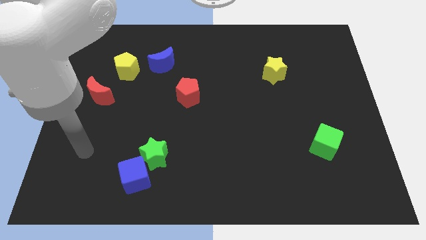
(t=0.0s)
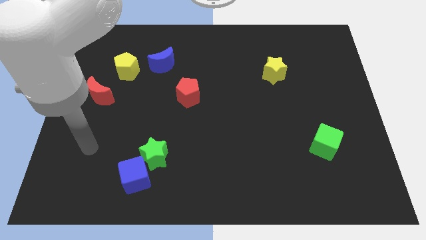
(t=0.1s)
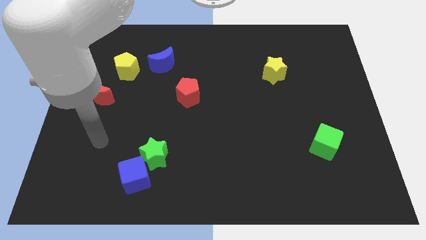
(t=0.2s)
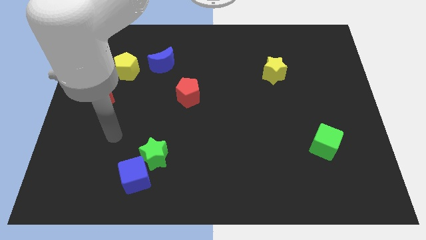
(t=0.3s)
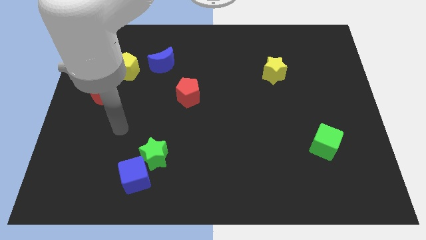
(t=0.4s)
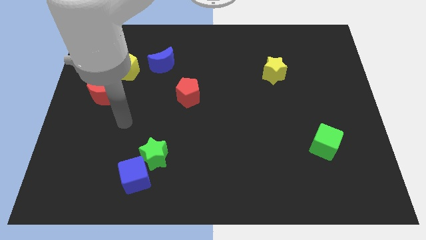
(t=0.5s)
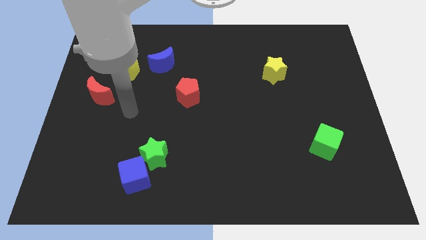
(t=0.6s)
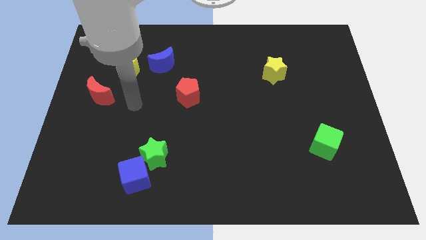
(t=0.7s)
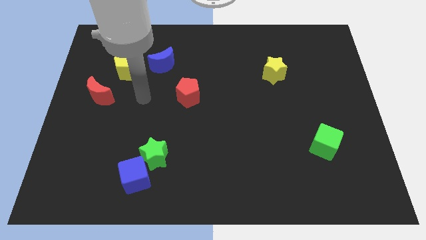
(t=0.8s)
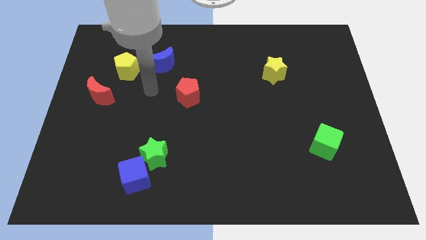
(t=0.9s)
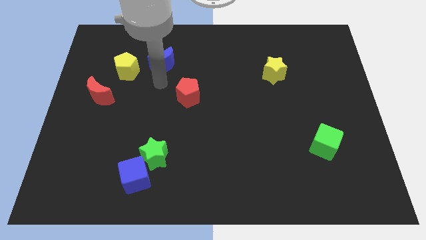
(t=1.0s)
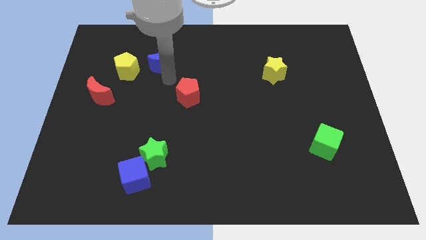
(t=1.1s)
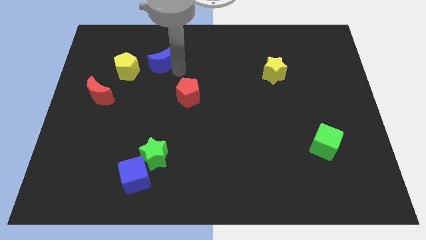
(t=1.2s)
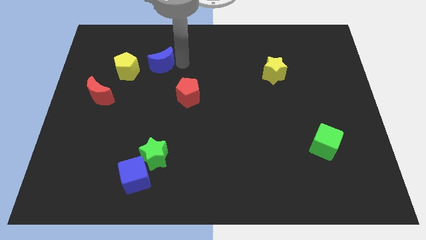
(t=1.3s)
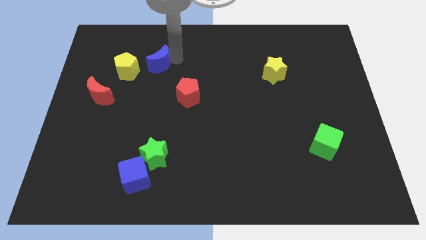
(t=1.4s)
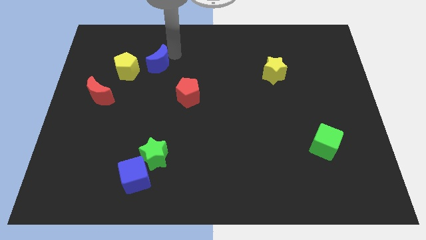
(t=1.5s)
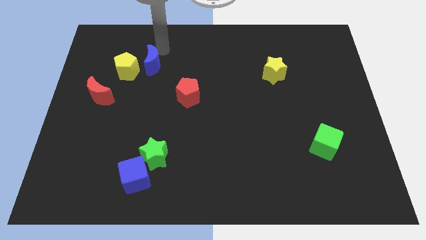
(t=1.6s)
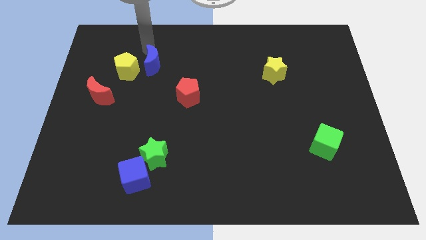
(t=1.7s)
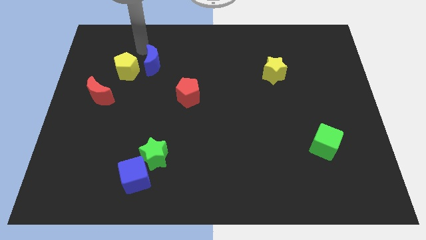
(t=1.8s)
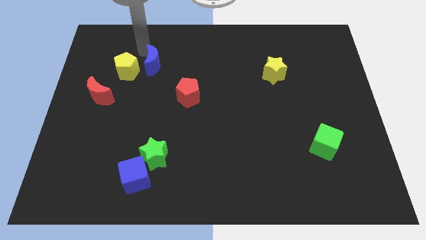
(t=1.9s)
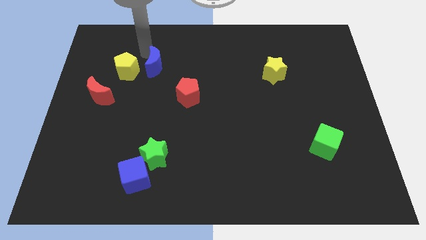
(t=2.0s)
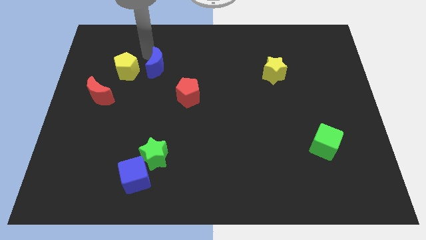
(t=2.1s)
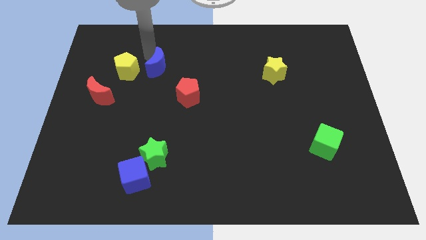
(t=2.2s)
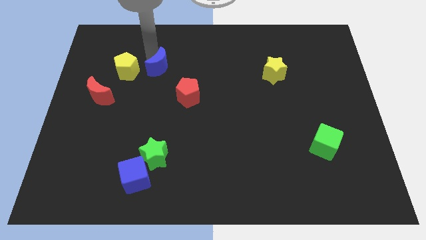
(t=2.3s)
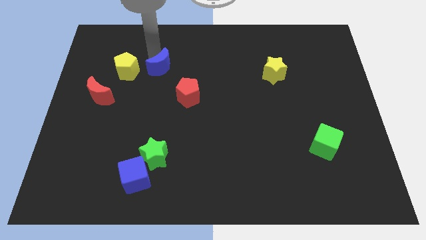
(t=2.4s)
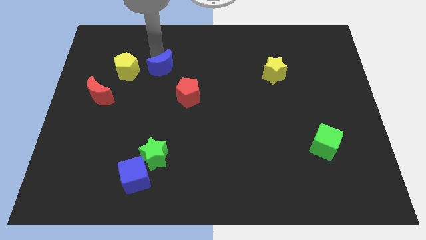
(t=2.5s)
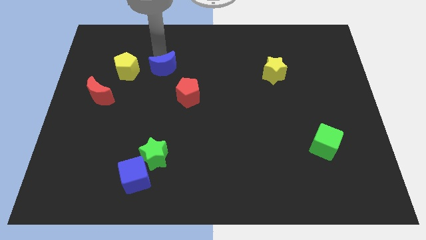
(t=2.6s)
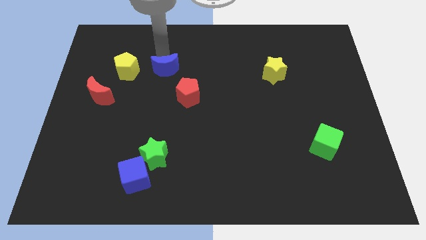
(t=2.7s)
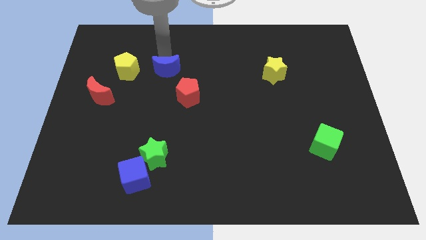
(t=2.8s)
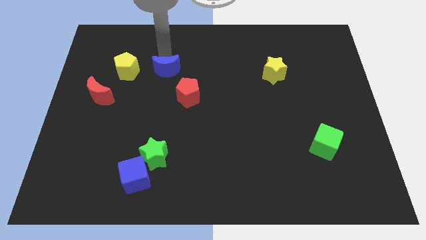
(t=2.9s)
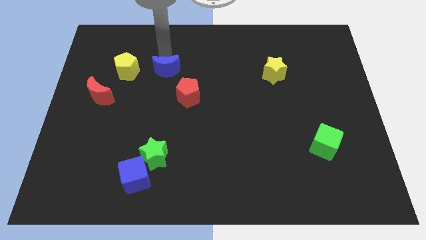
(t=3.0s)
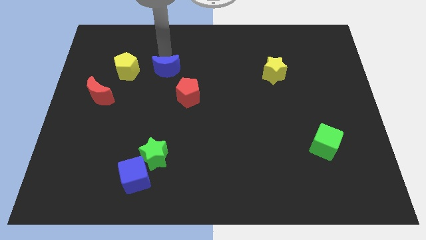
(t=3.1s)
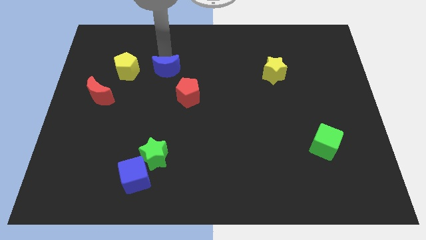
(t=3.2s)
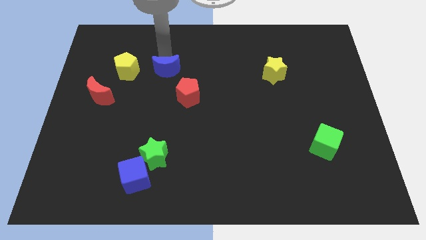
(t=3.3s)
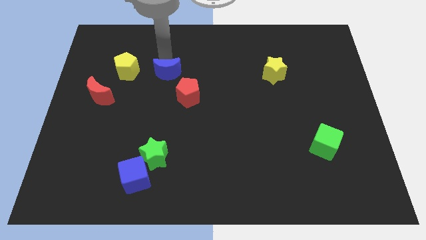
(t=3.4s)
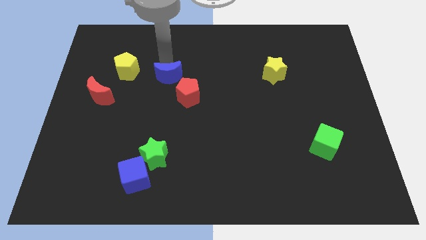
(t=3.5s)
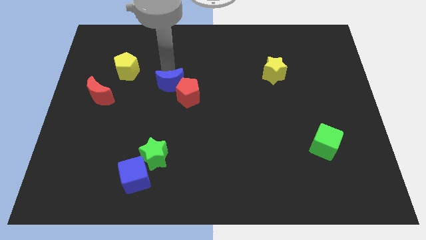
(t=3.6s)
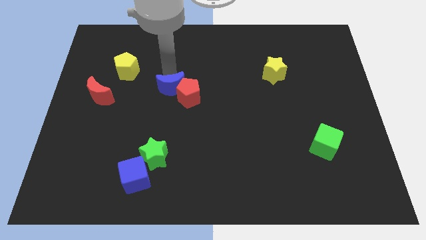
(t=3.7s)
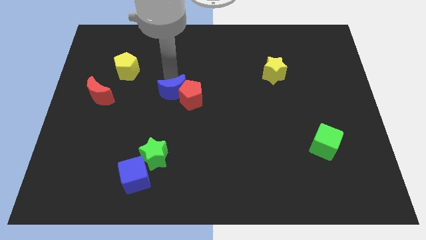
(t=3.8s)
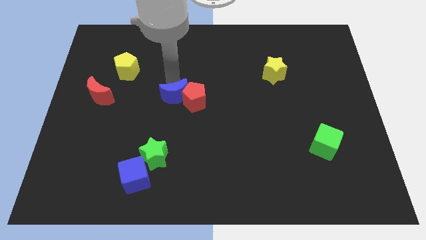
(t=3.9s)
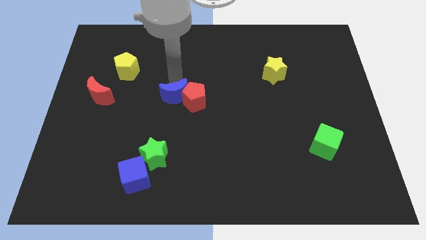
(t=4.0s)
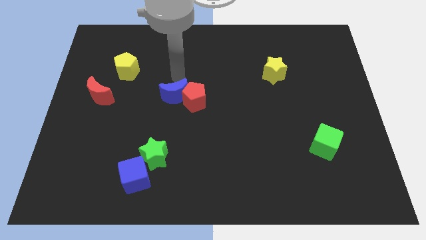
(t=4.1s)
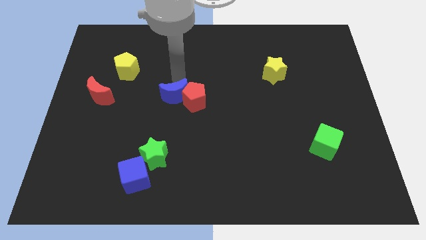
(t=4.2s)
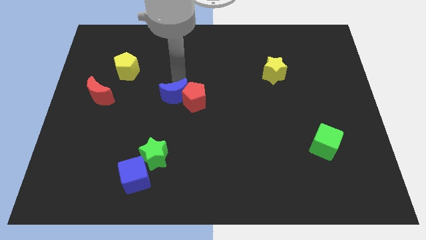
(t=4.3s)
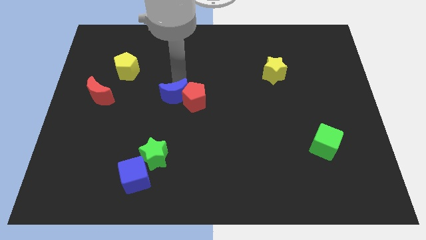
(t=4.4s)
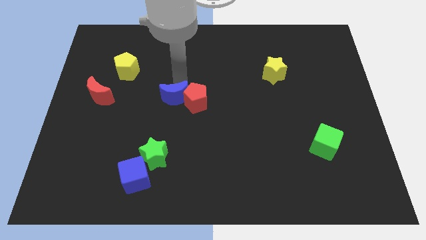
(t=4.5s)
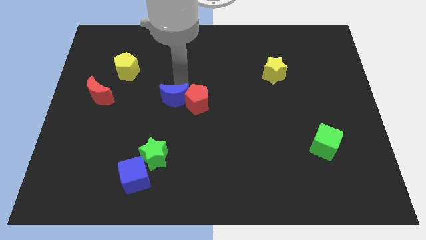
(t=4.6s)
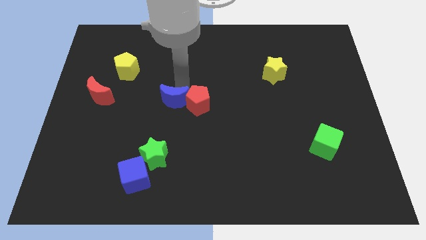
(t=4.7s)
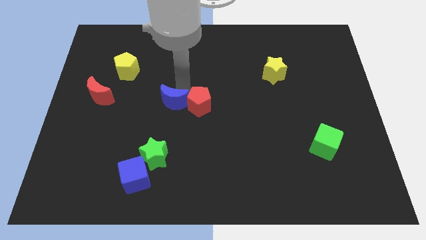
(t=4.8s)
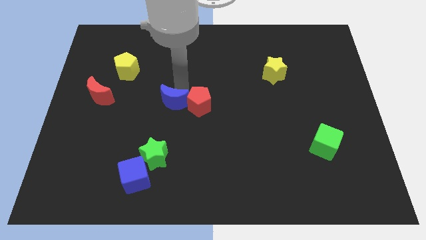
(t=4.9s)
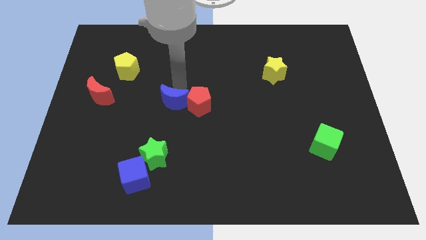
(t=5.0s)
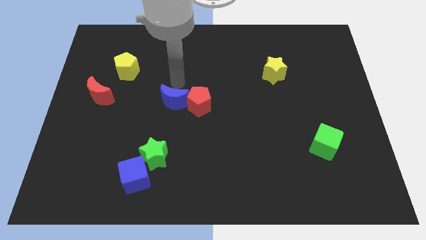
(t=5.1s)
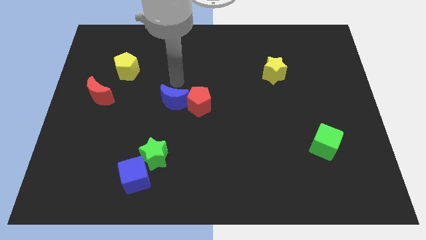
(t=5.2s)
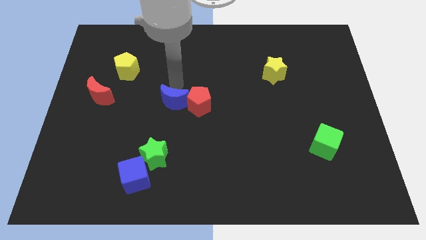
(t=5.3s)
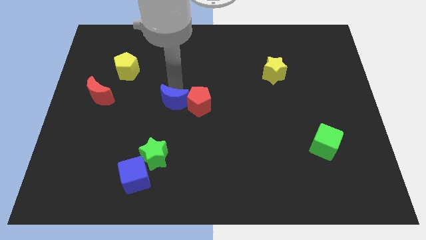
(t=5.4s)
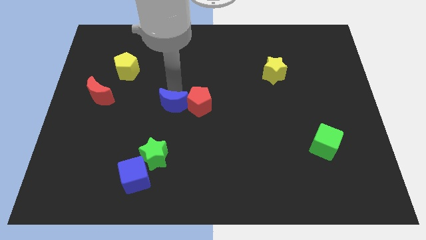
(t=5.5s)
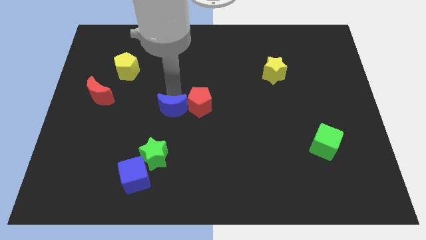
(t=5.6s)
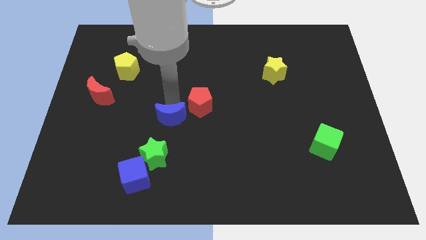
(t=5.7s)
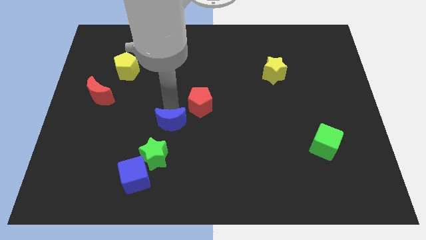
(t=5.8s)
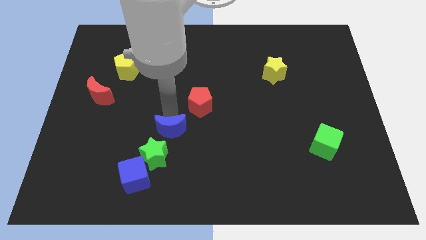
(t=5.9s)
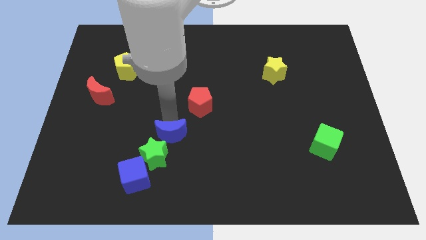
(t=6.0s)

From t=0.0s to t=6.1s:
slide the blue moon to the top right side of the blue cube

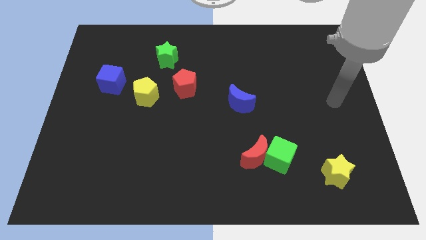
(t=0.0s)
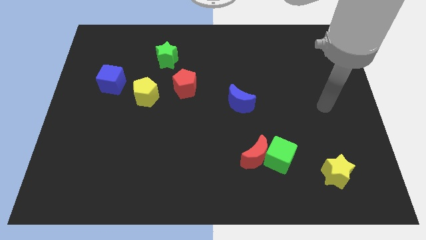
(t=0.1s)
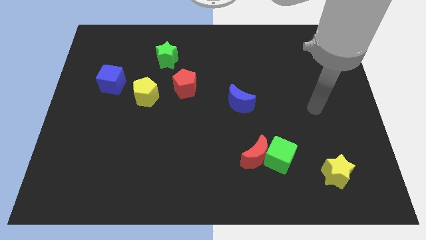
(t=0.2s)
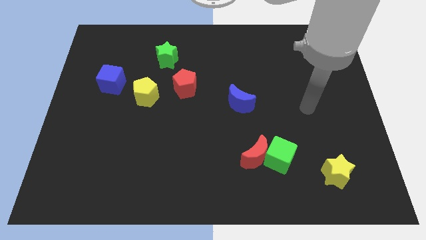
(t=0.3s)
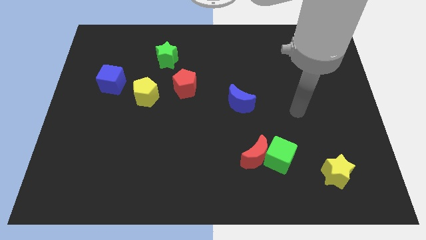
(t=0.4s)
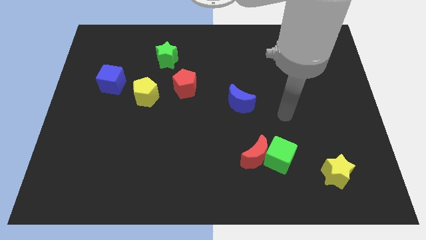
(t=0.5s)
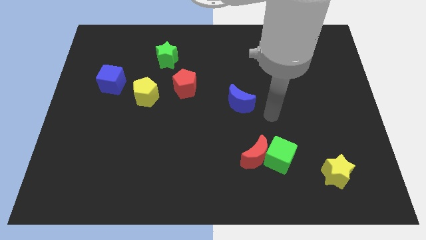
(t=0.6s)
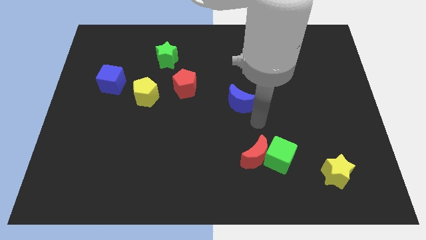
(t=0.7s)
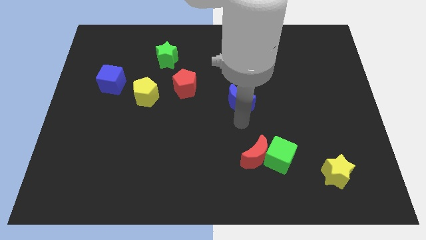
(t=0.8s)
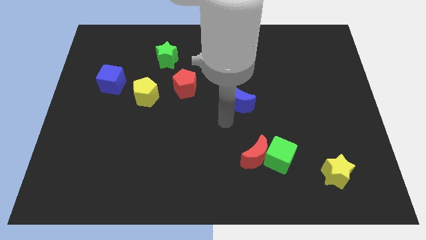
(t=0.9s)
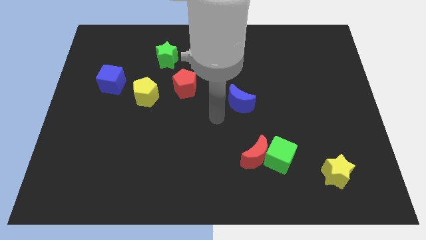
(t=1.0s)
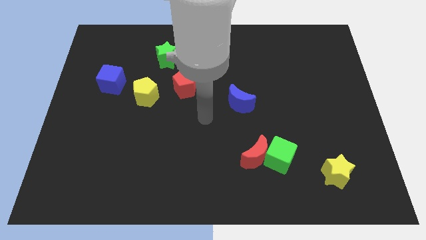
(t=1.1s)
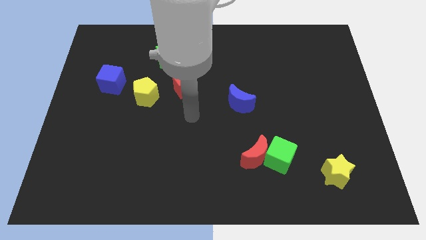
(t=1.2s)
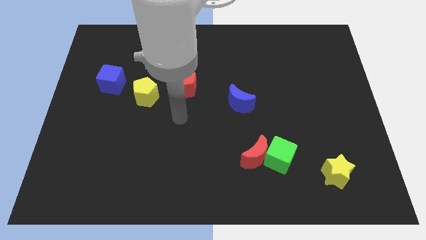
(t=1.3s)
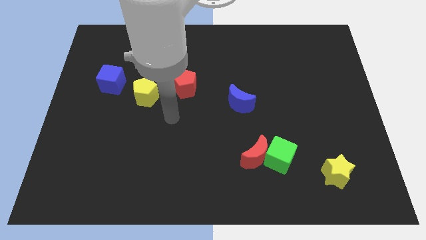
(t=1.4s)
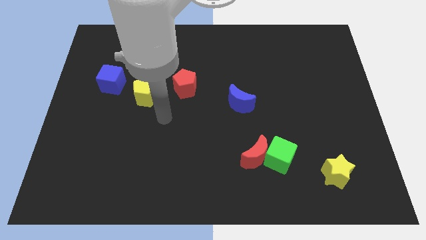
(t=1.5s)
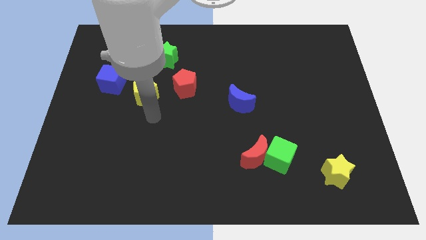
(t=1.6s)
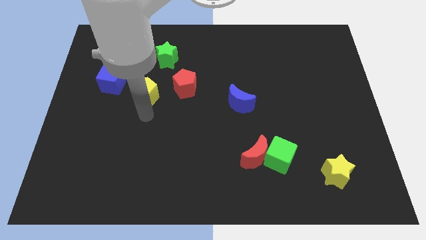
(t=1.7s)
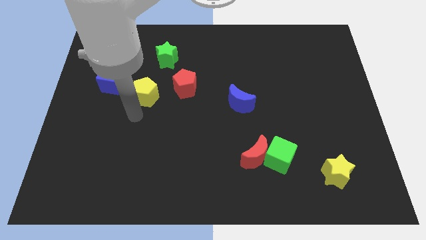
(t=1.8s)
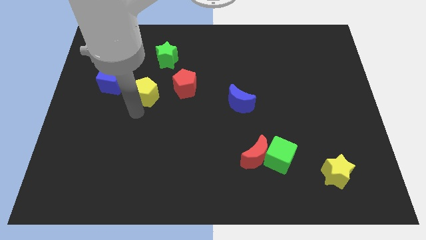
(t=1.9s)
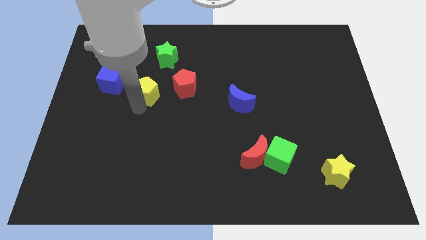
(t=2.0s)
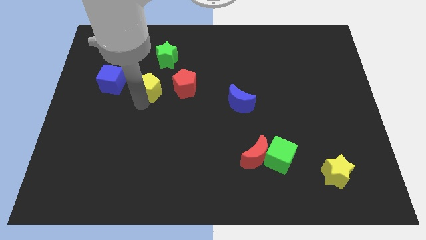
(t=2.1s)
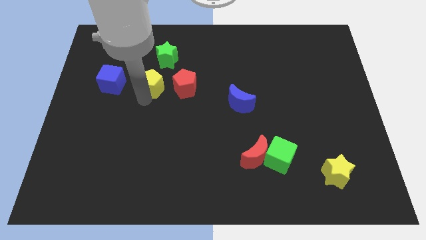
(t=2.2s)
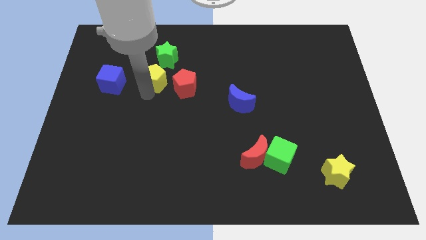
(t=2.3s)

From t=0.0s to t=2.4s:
slide the yellow pentagon to the top left side of the red pentagon
